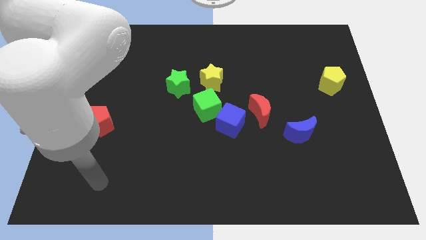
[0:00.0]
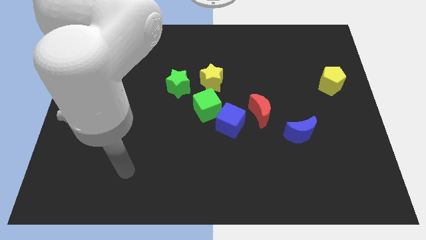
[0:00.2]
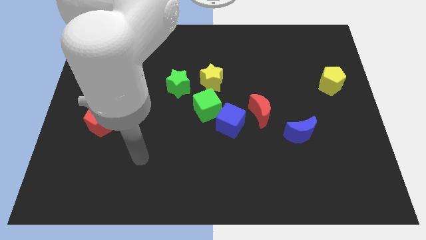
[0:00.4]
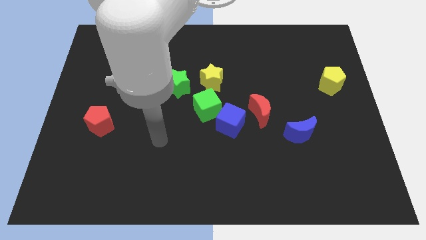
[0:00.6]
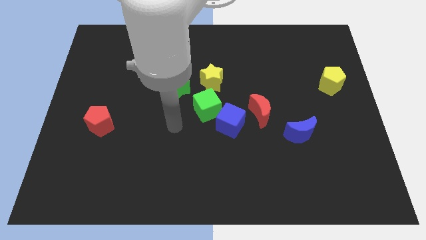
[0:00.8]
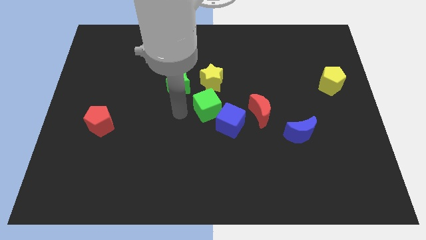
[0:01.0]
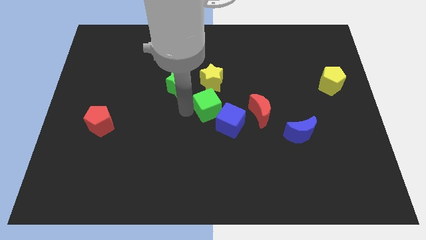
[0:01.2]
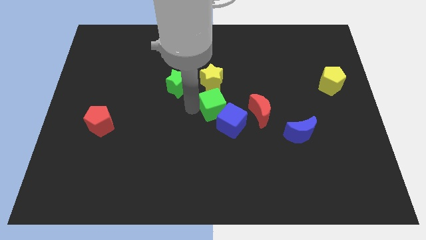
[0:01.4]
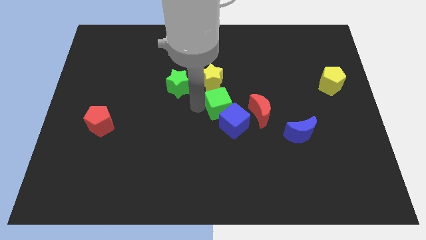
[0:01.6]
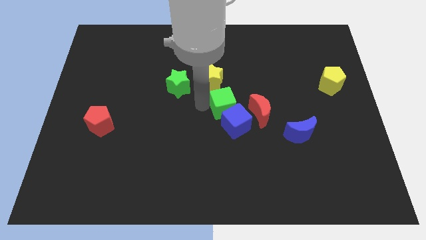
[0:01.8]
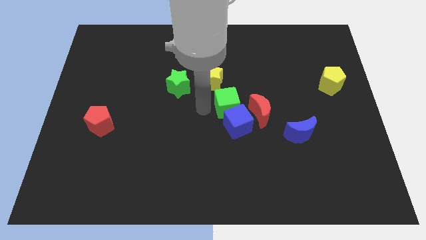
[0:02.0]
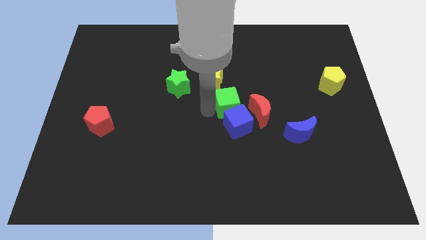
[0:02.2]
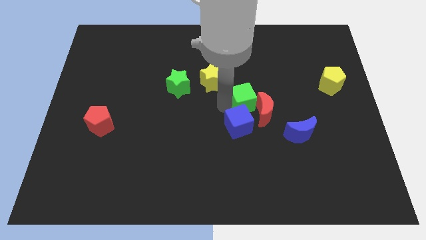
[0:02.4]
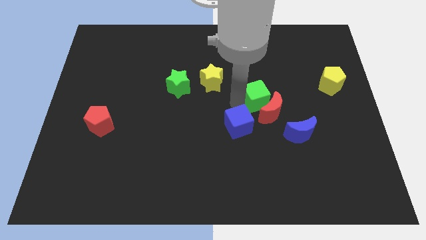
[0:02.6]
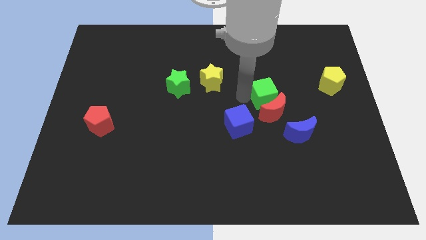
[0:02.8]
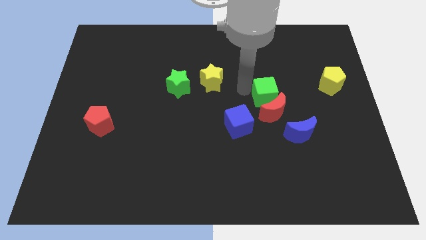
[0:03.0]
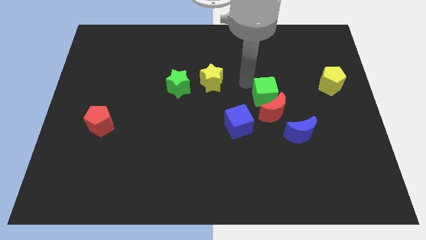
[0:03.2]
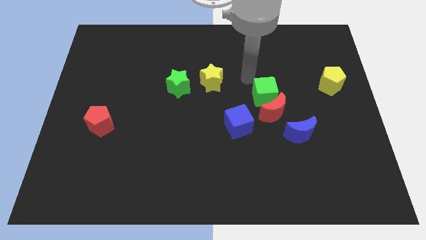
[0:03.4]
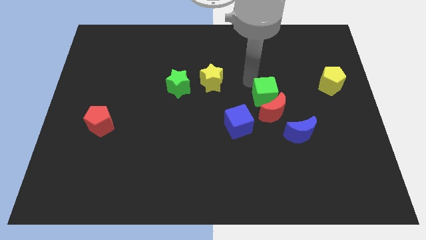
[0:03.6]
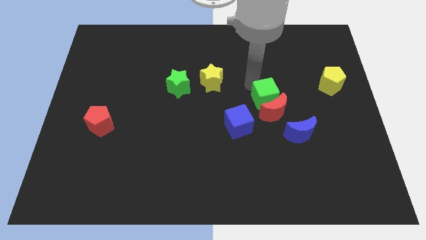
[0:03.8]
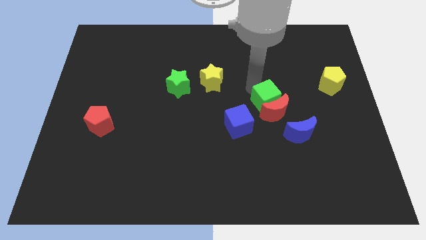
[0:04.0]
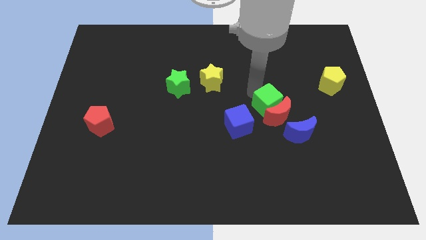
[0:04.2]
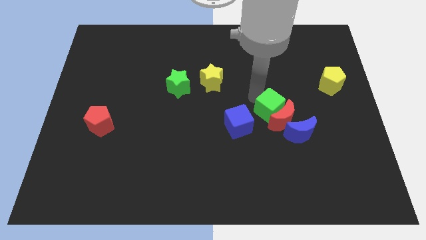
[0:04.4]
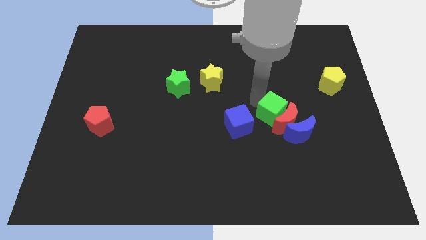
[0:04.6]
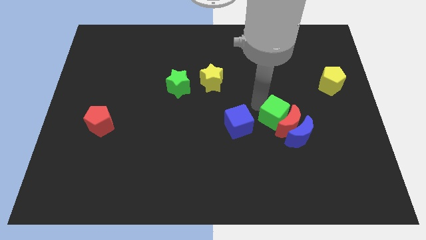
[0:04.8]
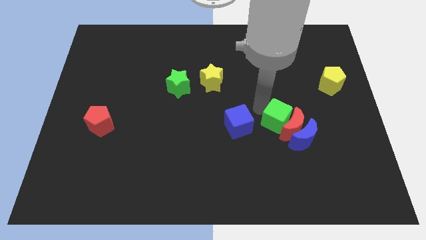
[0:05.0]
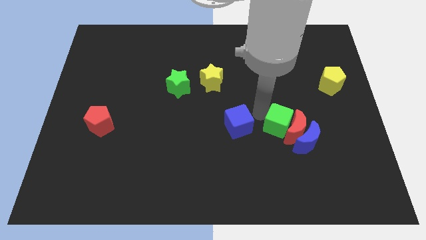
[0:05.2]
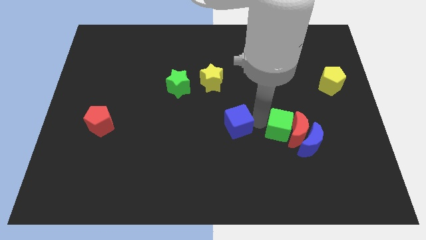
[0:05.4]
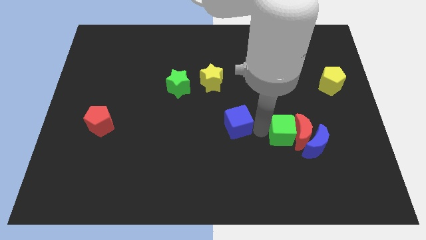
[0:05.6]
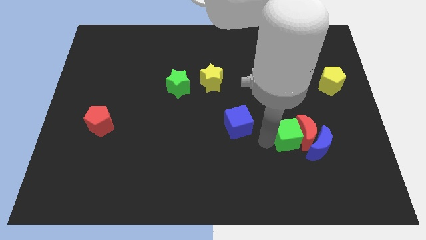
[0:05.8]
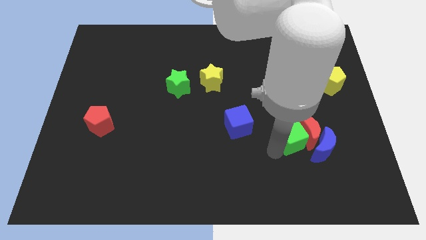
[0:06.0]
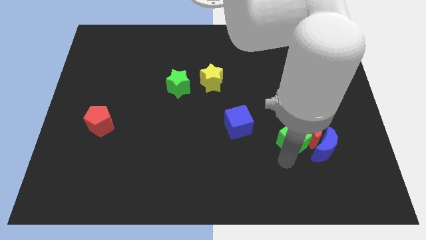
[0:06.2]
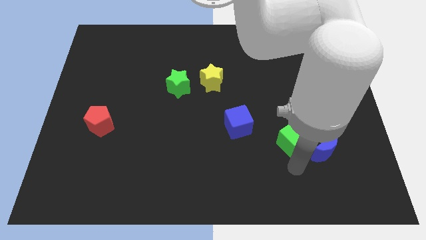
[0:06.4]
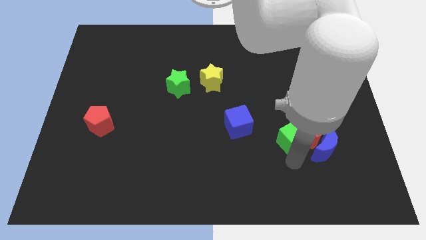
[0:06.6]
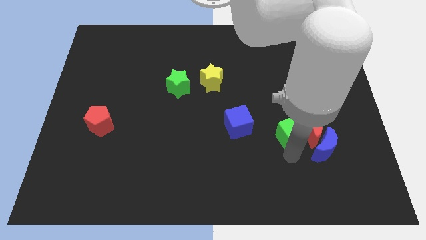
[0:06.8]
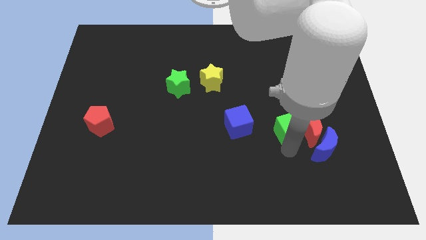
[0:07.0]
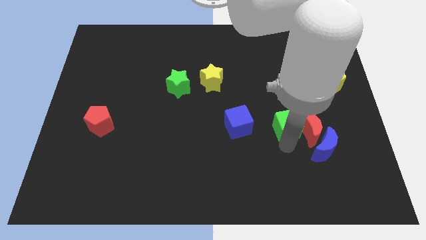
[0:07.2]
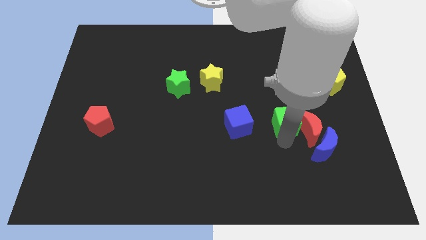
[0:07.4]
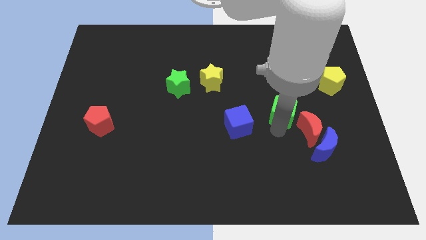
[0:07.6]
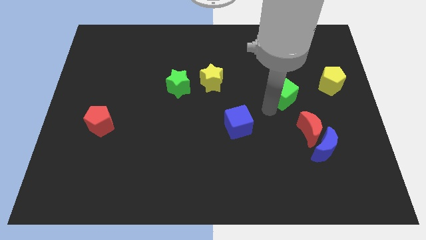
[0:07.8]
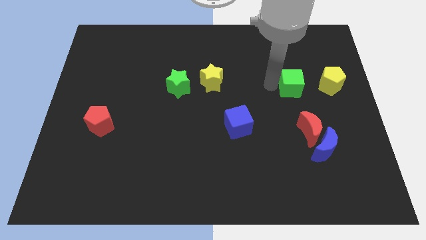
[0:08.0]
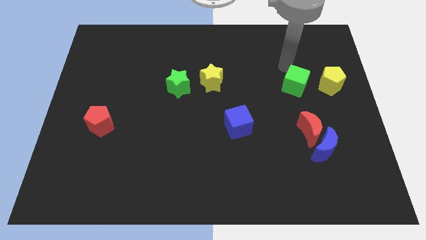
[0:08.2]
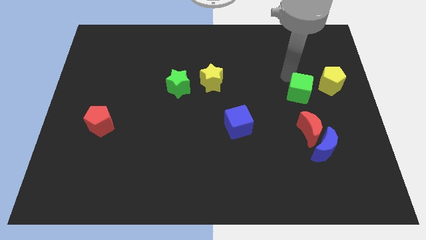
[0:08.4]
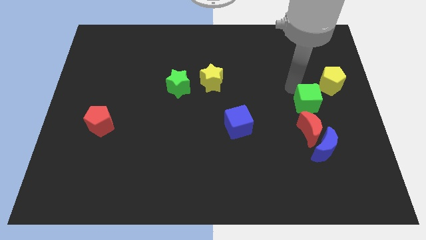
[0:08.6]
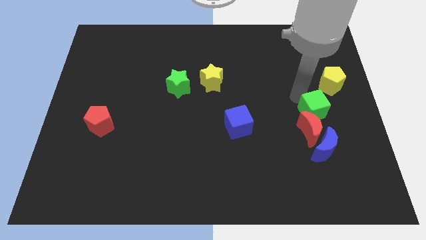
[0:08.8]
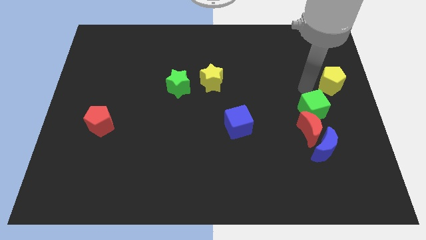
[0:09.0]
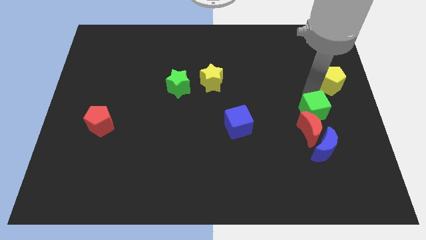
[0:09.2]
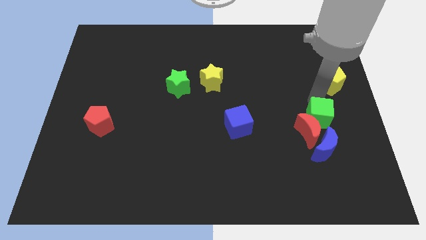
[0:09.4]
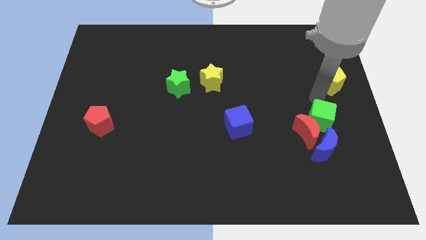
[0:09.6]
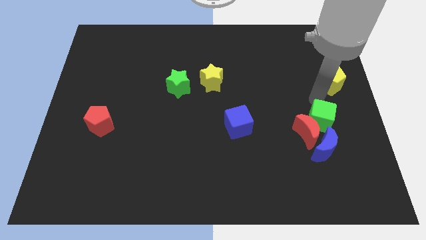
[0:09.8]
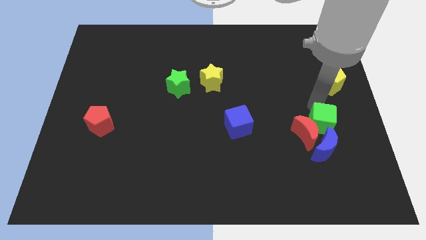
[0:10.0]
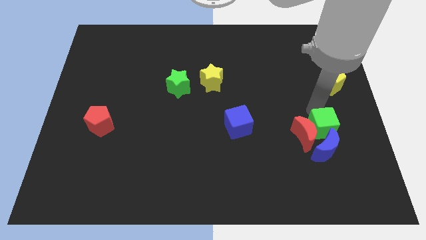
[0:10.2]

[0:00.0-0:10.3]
push the green cube next to the blue moon

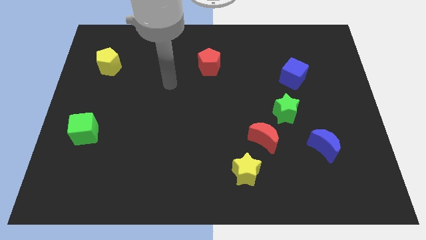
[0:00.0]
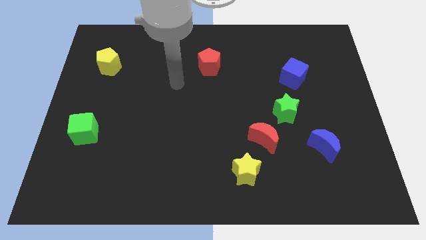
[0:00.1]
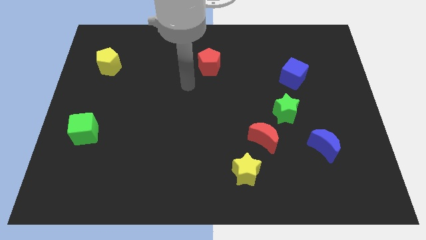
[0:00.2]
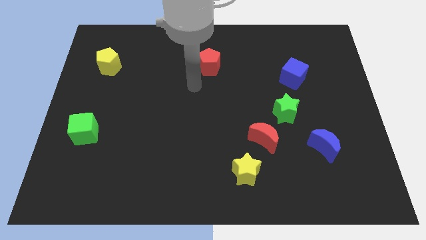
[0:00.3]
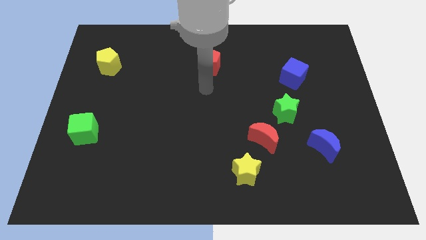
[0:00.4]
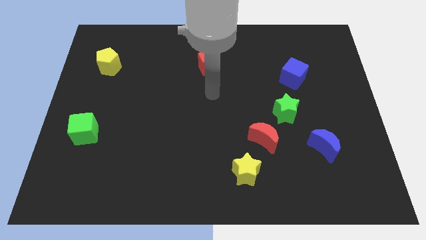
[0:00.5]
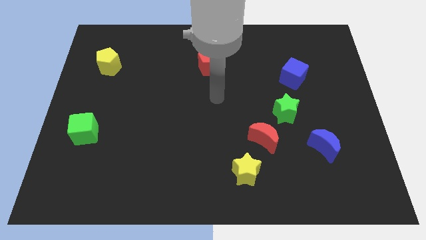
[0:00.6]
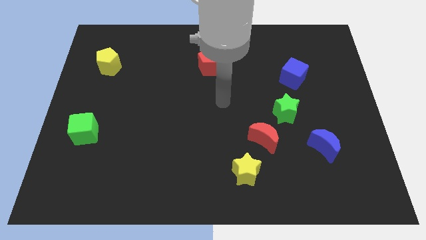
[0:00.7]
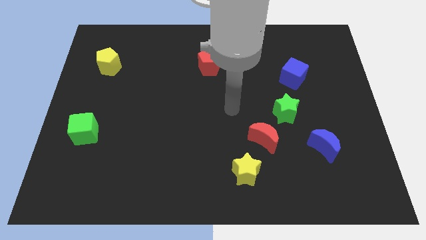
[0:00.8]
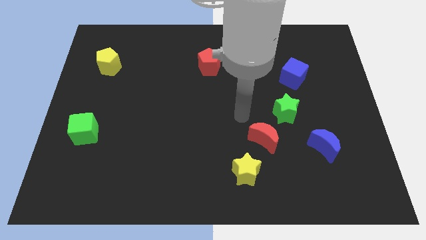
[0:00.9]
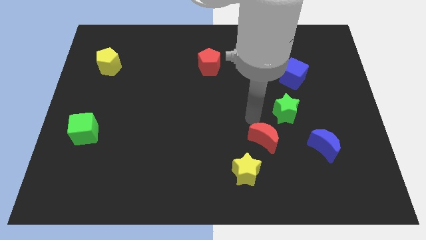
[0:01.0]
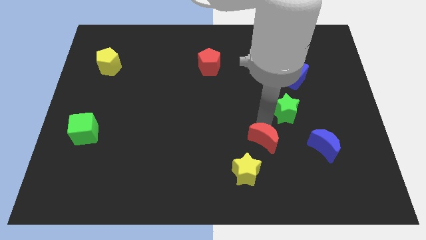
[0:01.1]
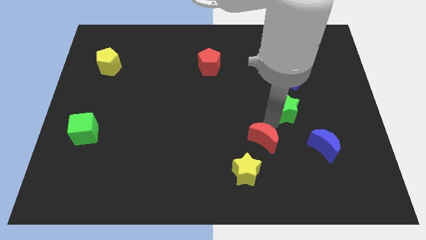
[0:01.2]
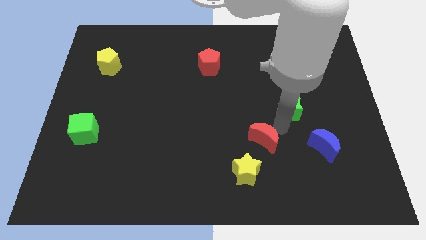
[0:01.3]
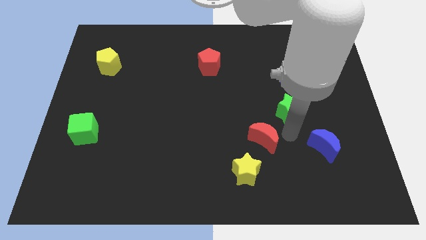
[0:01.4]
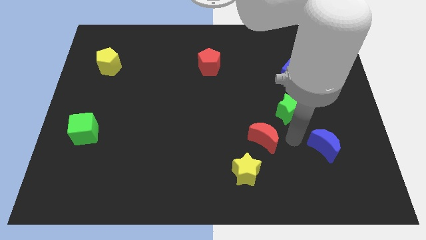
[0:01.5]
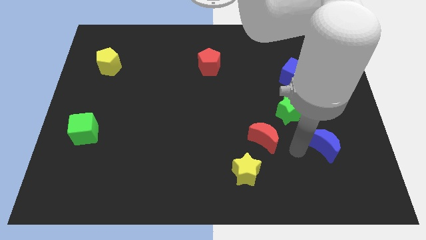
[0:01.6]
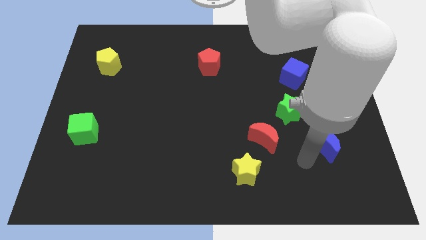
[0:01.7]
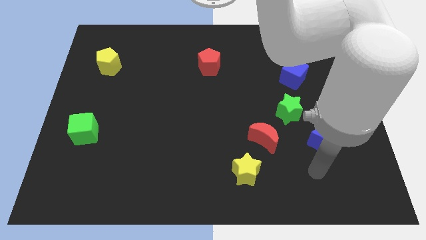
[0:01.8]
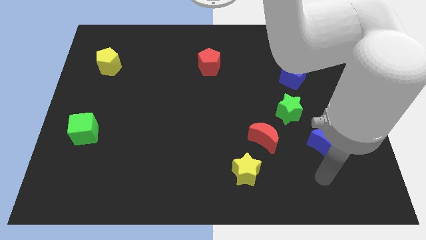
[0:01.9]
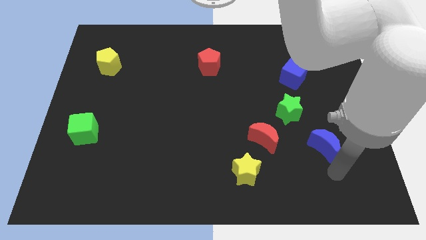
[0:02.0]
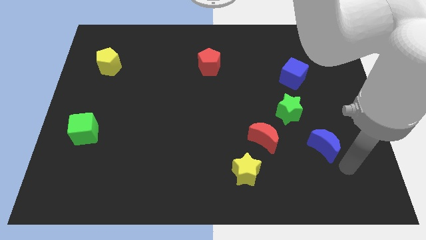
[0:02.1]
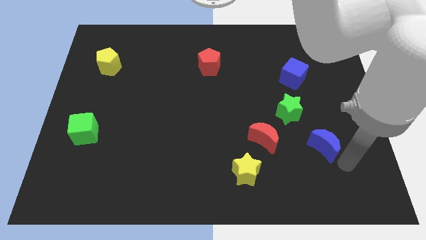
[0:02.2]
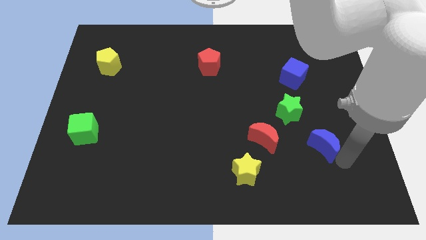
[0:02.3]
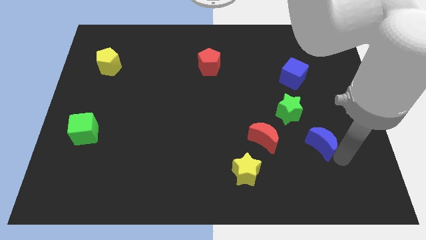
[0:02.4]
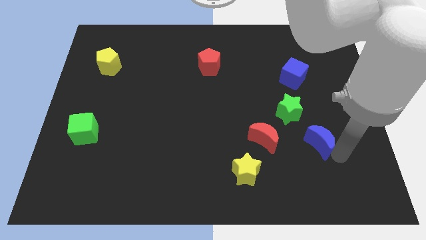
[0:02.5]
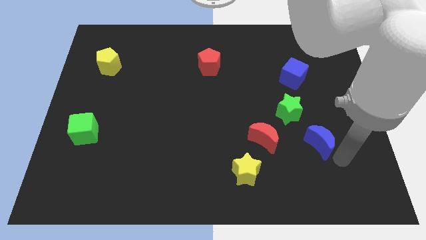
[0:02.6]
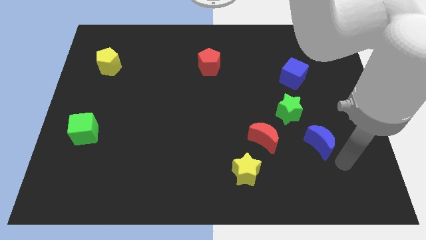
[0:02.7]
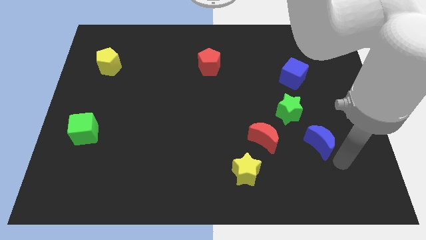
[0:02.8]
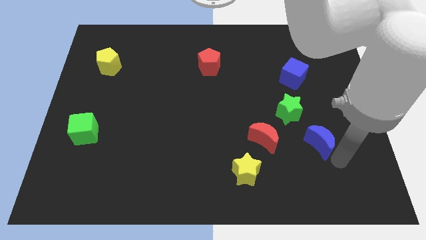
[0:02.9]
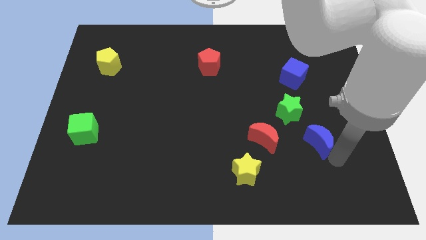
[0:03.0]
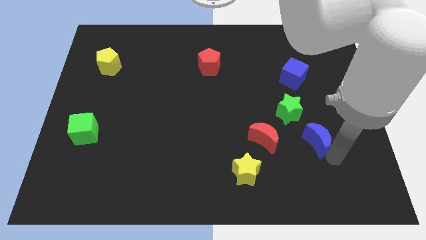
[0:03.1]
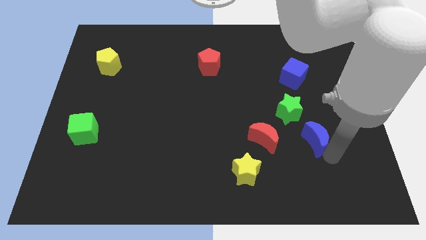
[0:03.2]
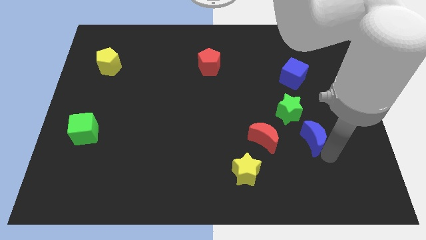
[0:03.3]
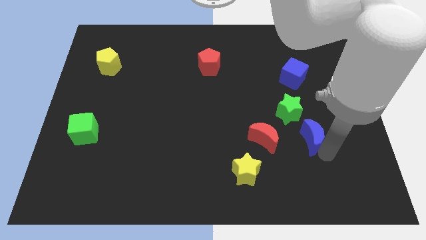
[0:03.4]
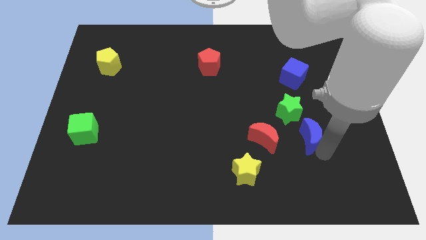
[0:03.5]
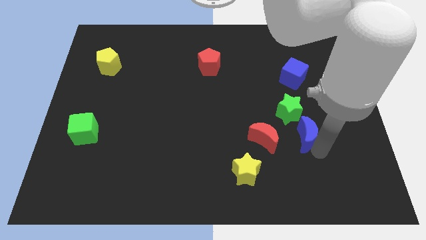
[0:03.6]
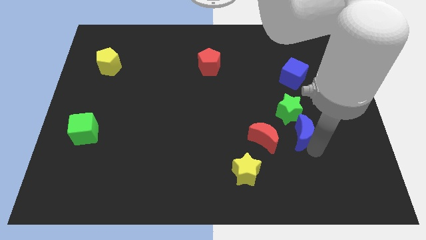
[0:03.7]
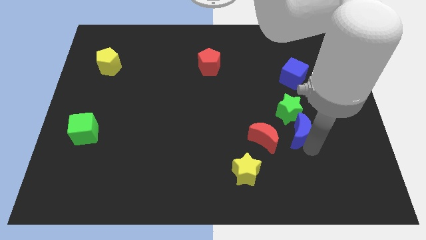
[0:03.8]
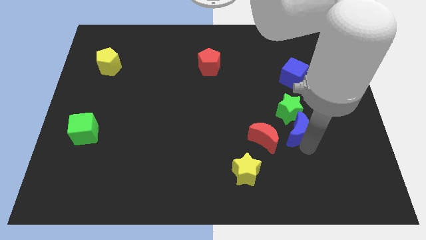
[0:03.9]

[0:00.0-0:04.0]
move the blue moon next to the green star
